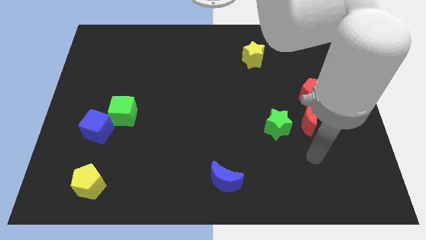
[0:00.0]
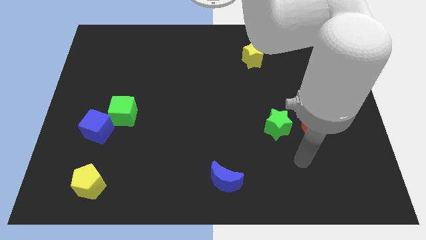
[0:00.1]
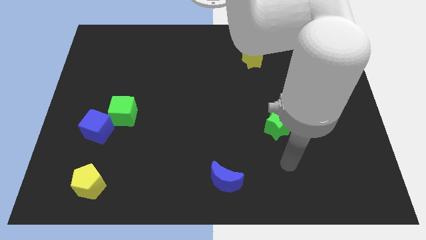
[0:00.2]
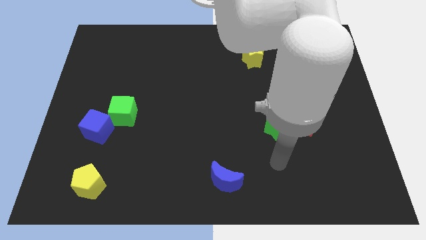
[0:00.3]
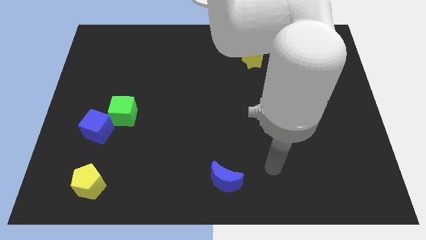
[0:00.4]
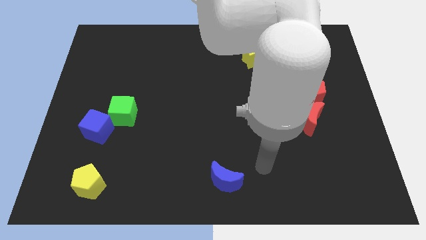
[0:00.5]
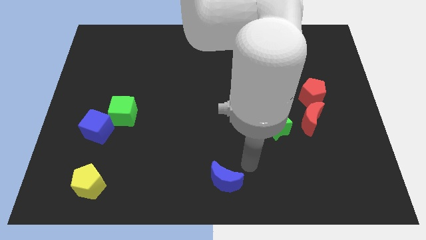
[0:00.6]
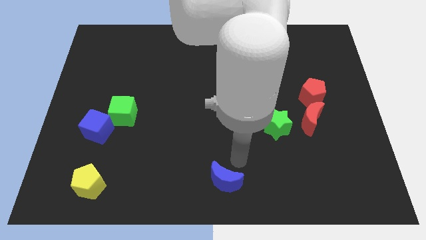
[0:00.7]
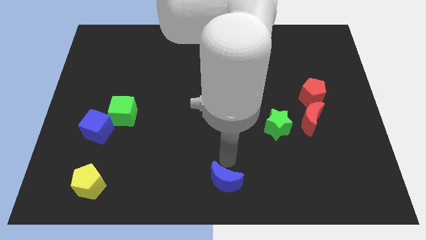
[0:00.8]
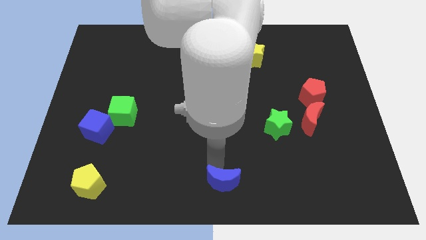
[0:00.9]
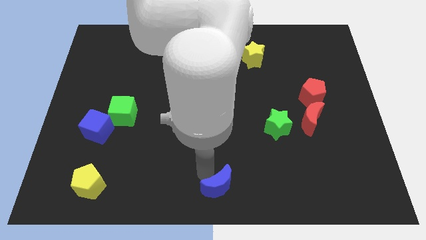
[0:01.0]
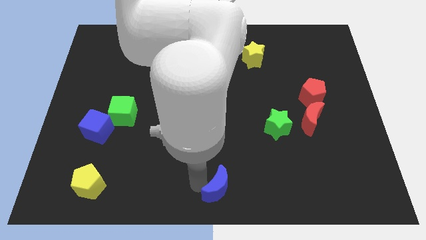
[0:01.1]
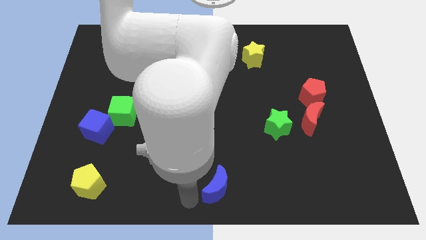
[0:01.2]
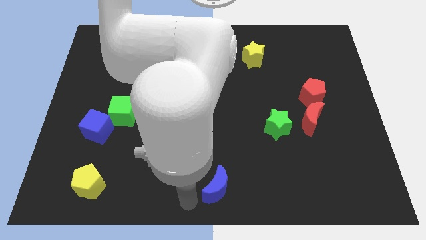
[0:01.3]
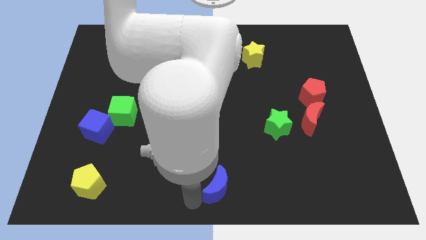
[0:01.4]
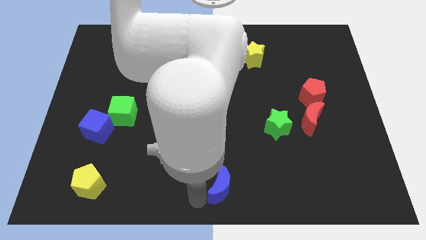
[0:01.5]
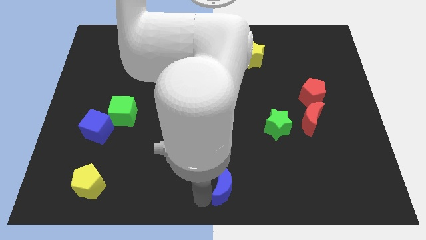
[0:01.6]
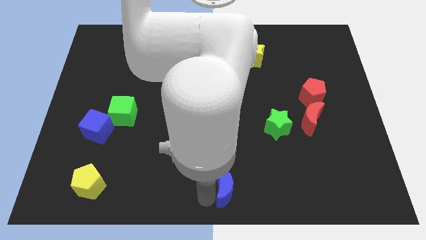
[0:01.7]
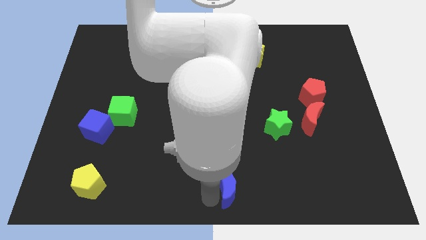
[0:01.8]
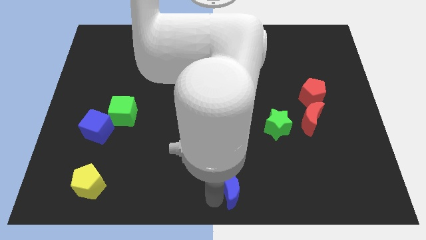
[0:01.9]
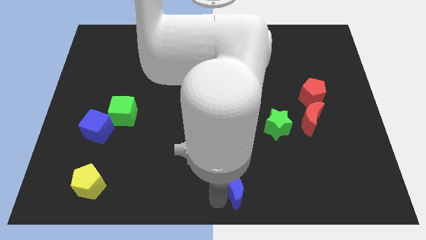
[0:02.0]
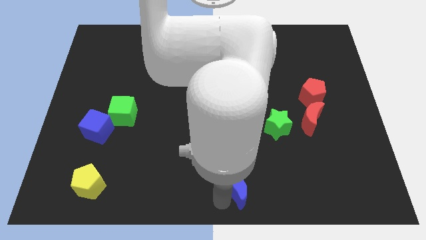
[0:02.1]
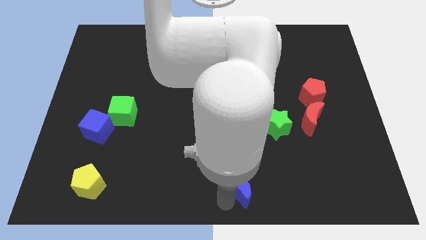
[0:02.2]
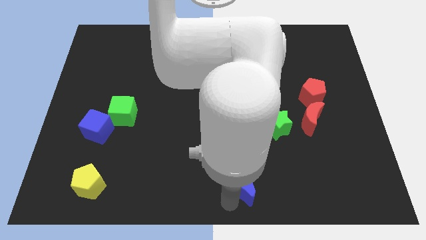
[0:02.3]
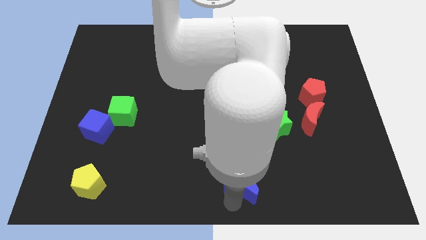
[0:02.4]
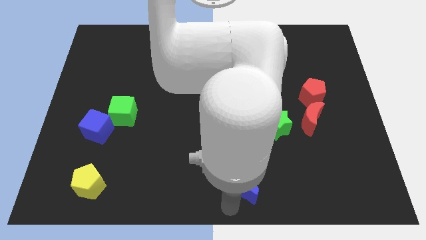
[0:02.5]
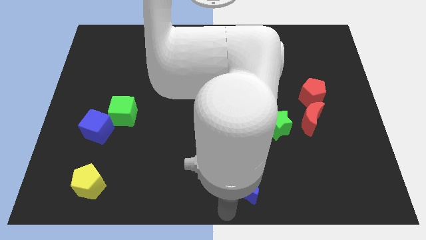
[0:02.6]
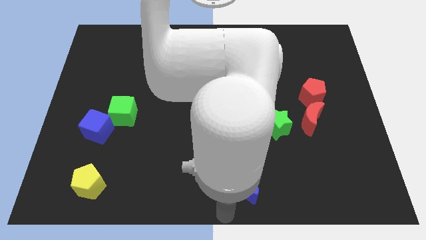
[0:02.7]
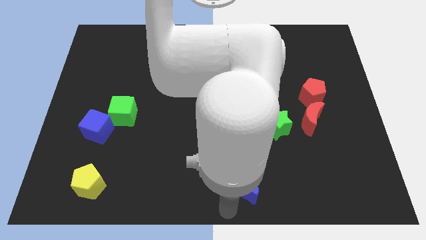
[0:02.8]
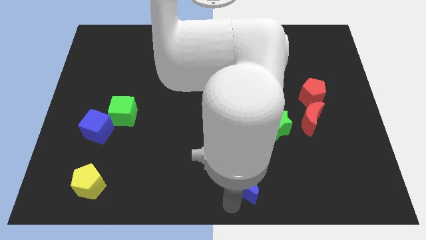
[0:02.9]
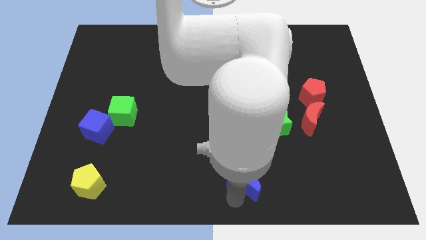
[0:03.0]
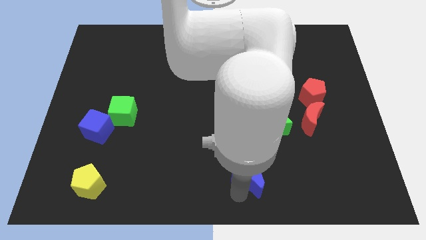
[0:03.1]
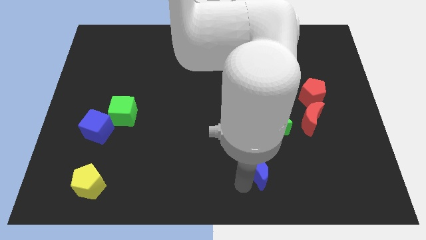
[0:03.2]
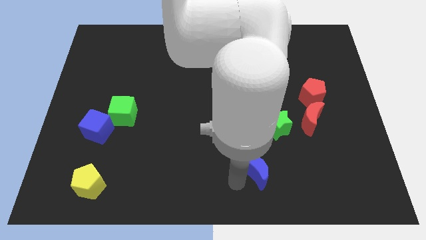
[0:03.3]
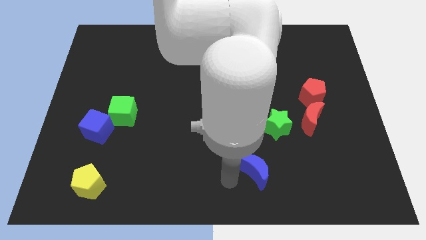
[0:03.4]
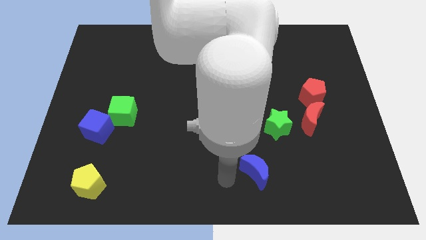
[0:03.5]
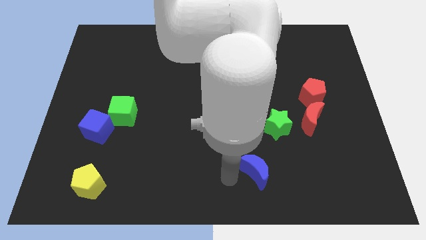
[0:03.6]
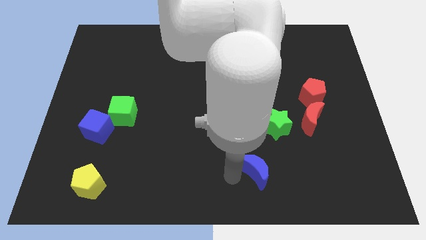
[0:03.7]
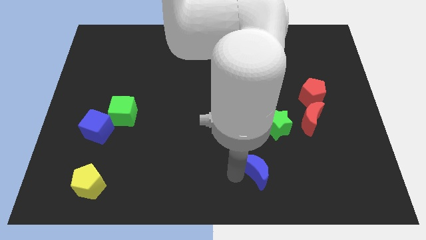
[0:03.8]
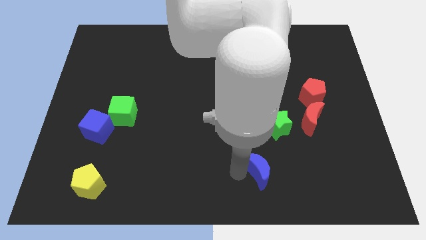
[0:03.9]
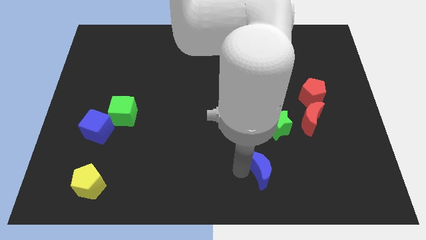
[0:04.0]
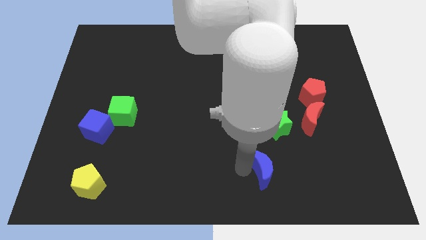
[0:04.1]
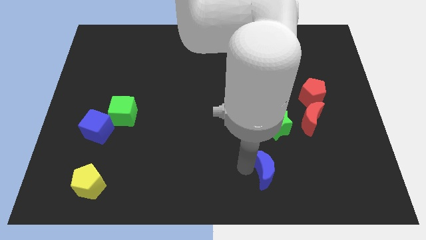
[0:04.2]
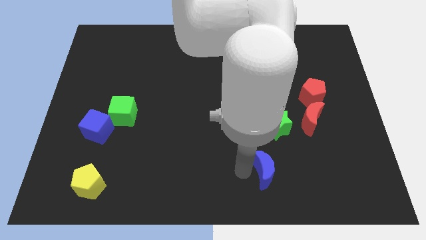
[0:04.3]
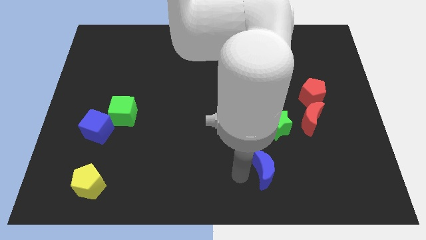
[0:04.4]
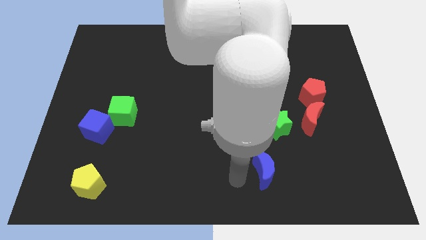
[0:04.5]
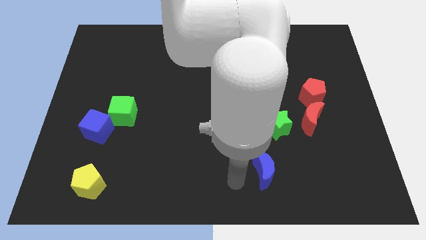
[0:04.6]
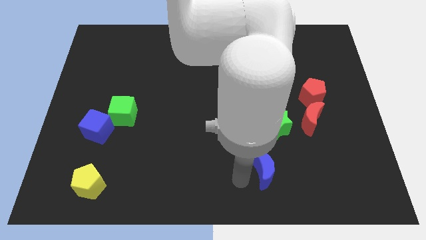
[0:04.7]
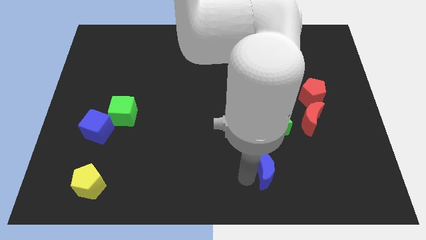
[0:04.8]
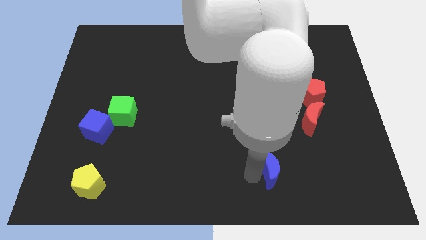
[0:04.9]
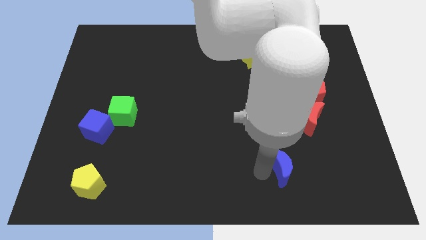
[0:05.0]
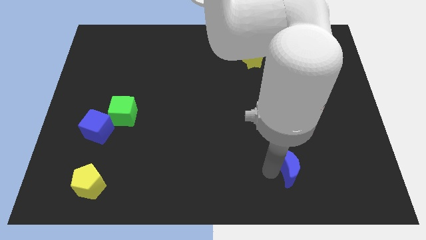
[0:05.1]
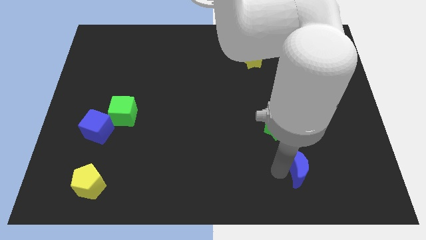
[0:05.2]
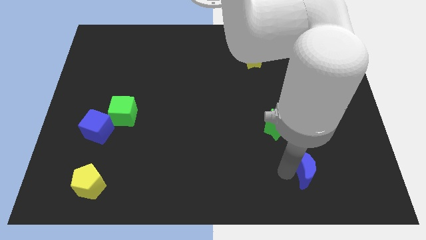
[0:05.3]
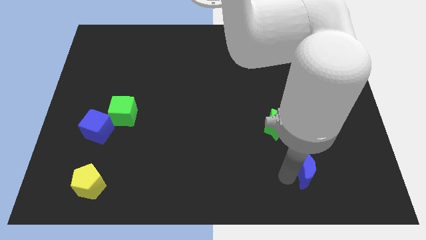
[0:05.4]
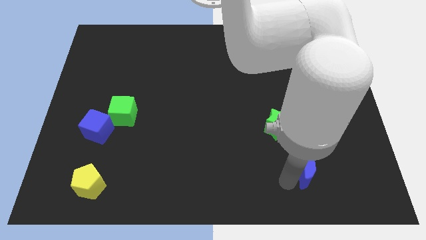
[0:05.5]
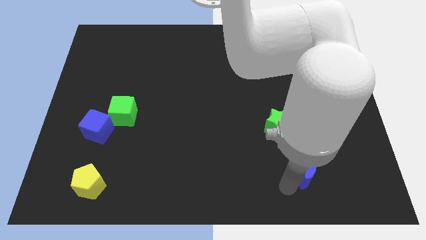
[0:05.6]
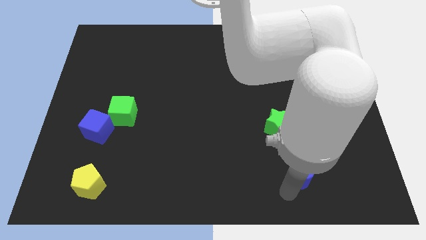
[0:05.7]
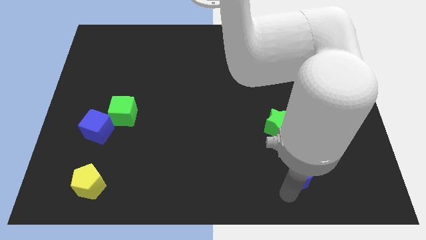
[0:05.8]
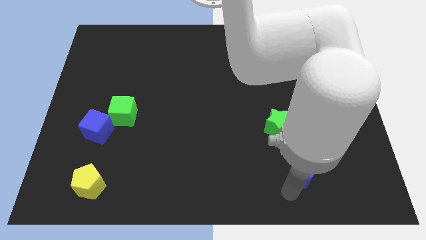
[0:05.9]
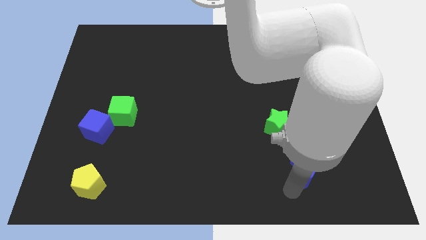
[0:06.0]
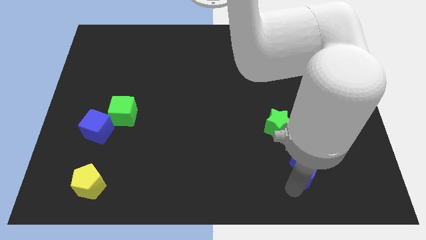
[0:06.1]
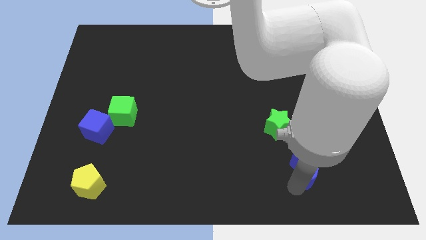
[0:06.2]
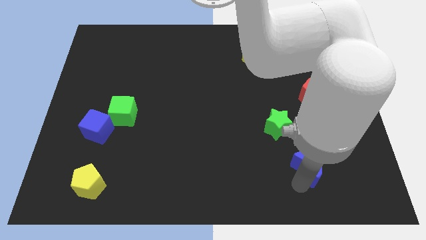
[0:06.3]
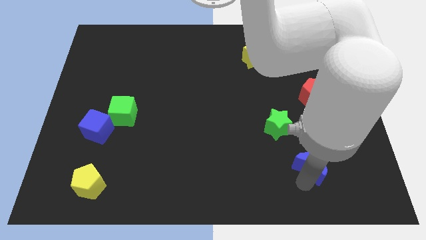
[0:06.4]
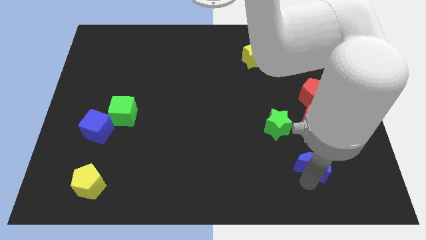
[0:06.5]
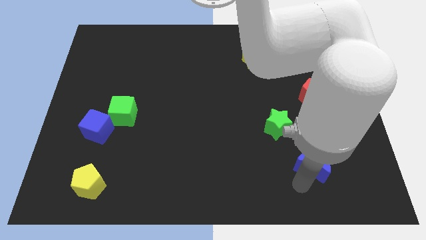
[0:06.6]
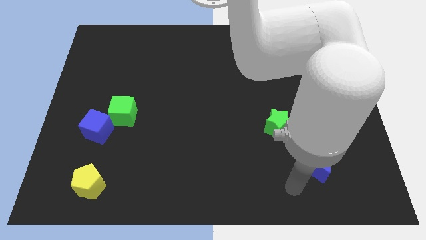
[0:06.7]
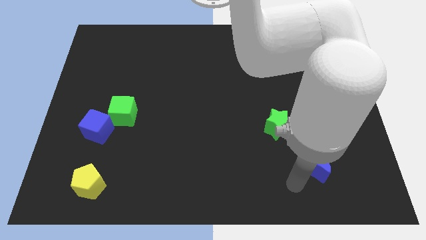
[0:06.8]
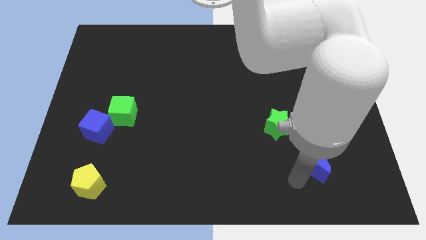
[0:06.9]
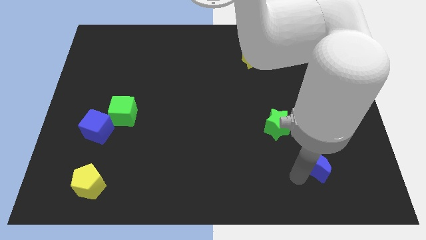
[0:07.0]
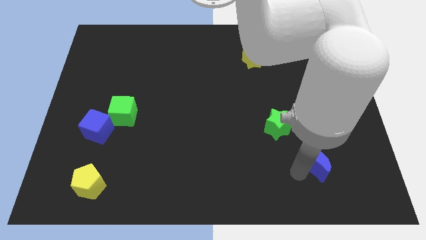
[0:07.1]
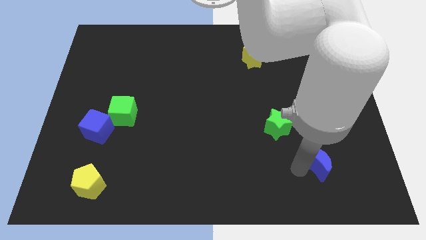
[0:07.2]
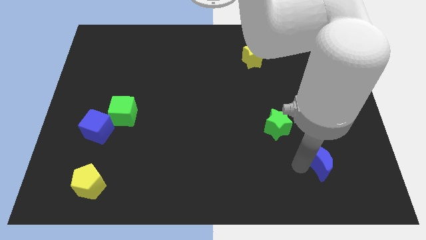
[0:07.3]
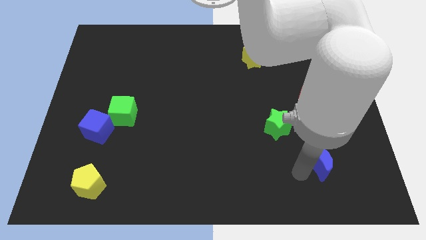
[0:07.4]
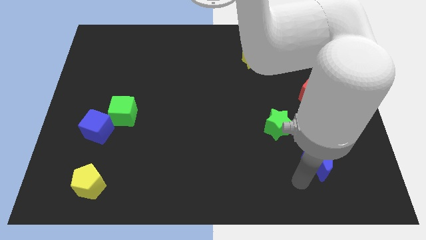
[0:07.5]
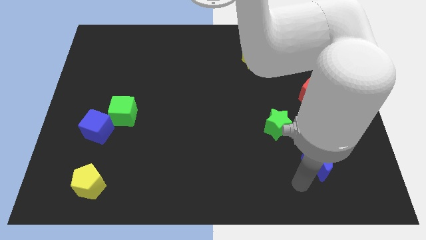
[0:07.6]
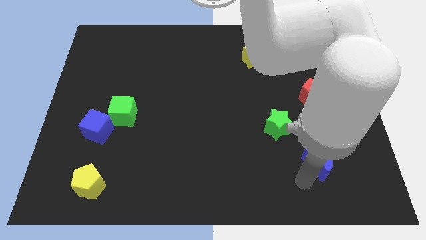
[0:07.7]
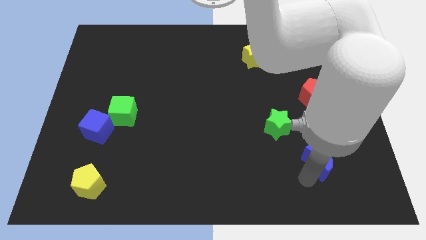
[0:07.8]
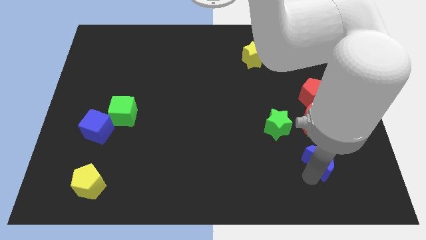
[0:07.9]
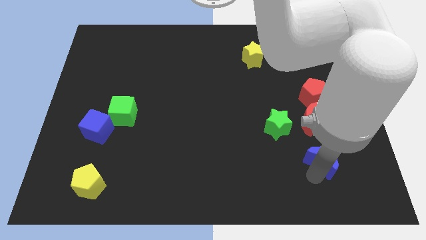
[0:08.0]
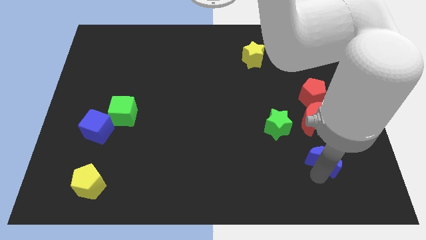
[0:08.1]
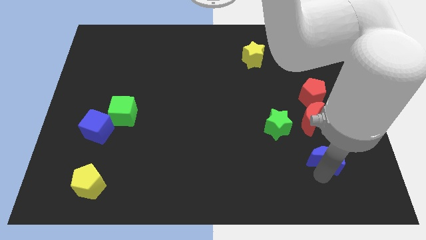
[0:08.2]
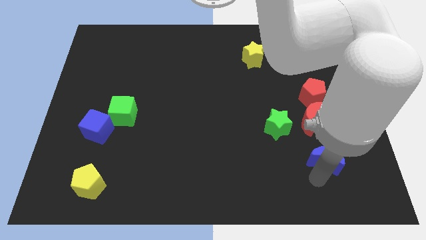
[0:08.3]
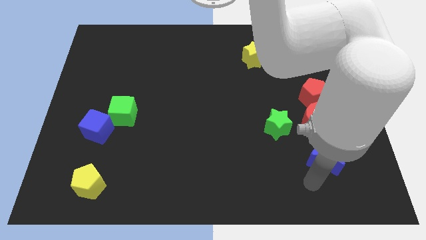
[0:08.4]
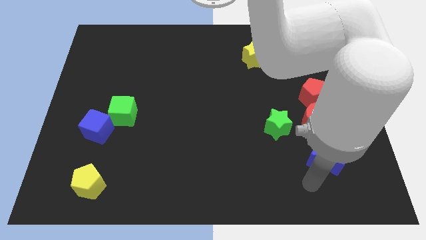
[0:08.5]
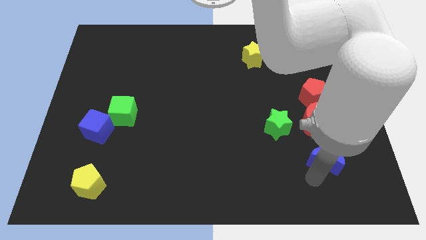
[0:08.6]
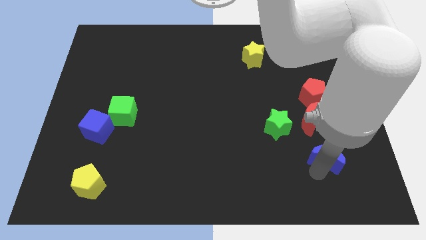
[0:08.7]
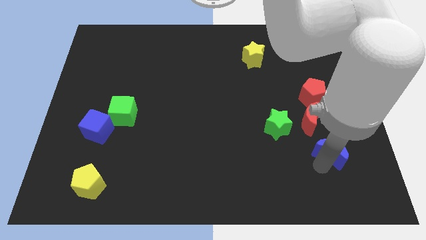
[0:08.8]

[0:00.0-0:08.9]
slide the blue moon to the bottom right side of the red moon
